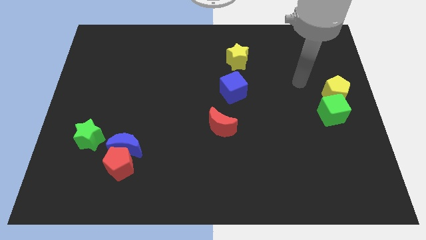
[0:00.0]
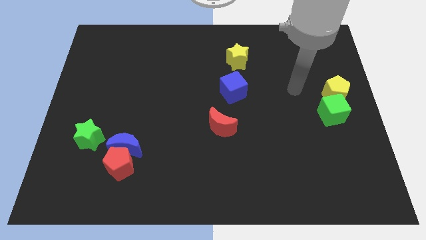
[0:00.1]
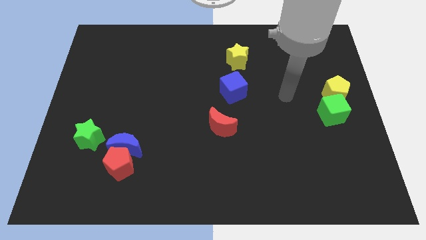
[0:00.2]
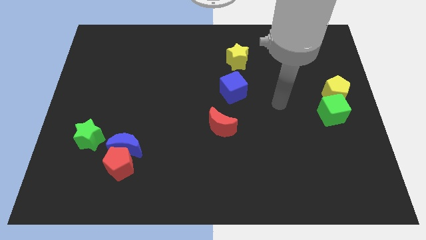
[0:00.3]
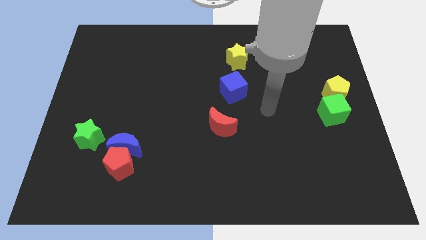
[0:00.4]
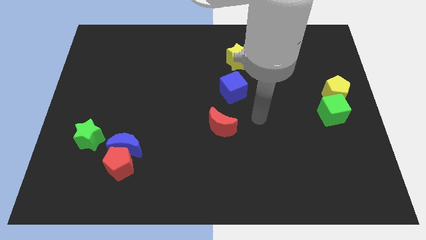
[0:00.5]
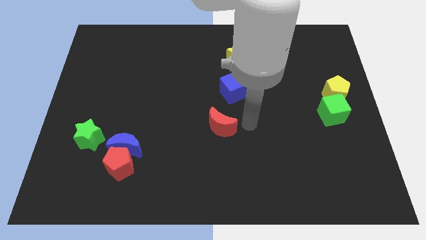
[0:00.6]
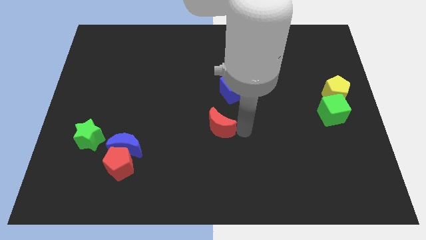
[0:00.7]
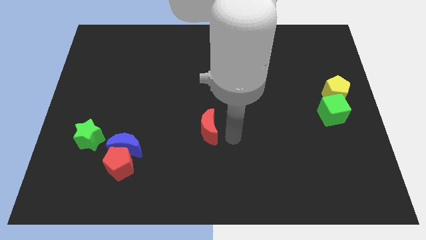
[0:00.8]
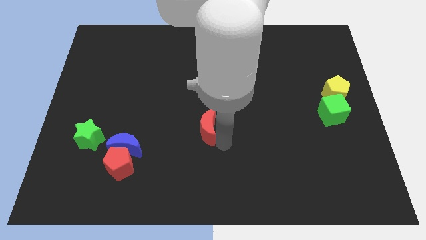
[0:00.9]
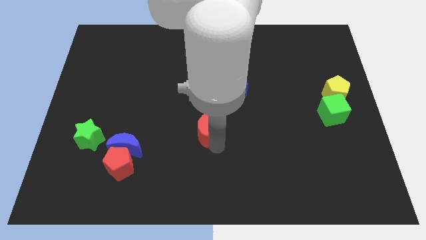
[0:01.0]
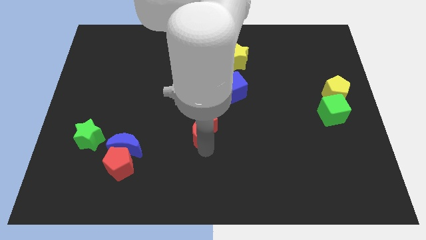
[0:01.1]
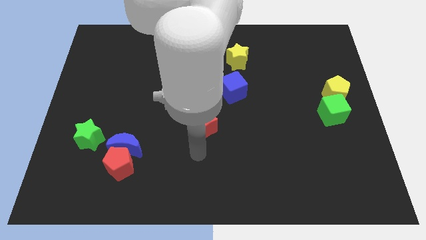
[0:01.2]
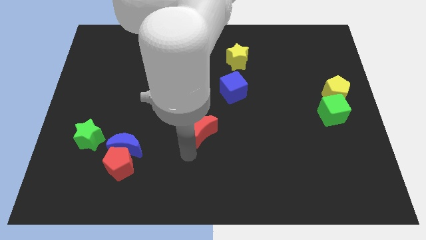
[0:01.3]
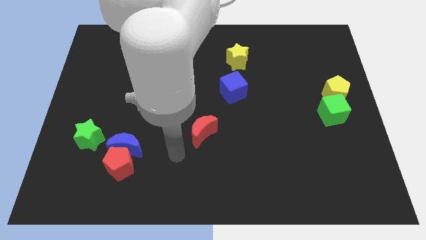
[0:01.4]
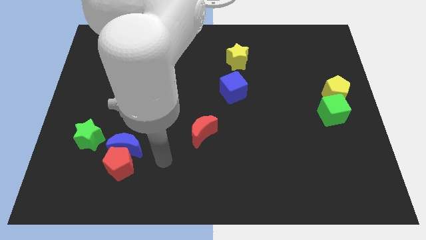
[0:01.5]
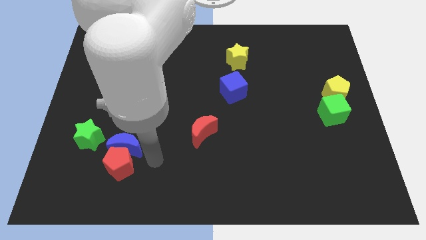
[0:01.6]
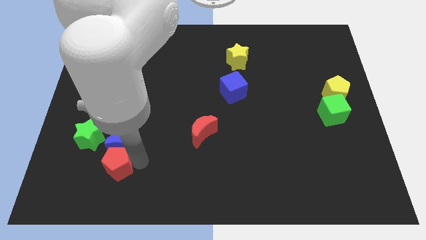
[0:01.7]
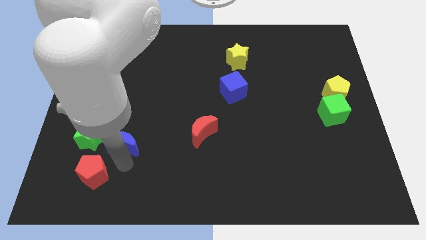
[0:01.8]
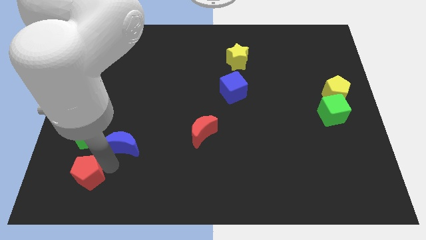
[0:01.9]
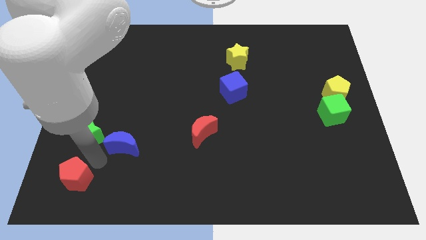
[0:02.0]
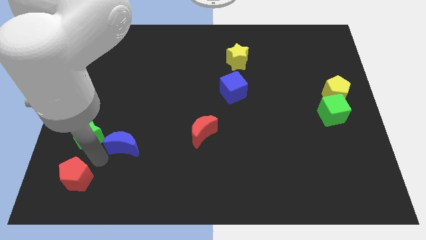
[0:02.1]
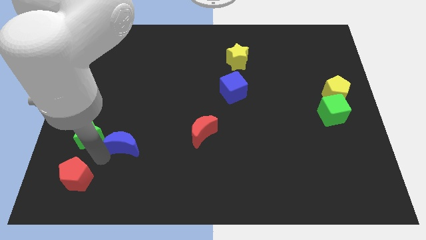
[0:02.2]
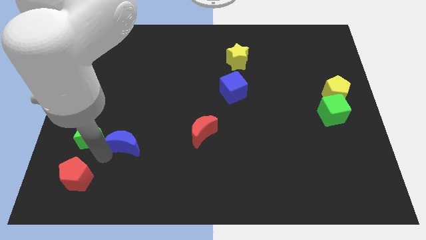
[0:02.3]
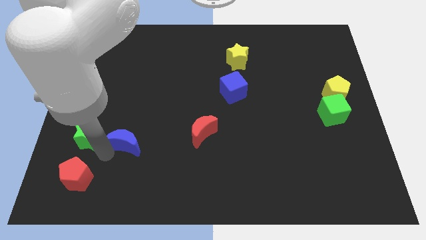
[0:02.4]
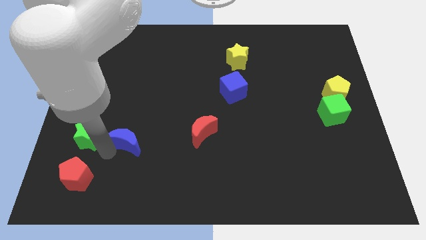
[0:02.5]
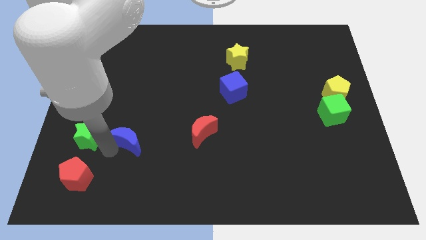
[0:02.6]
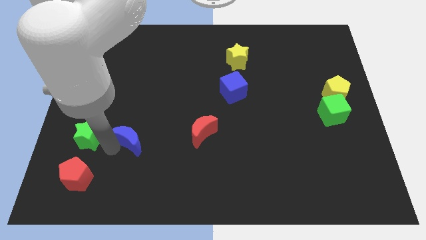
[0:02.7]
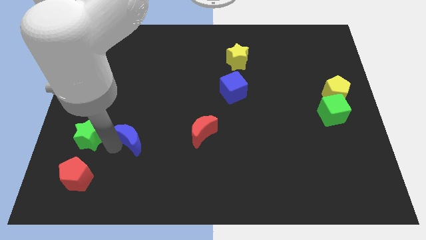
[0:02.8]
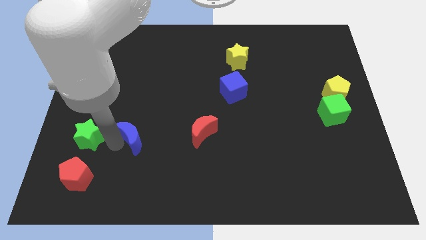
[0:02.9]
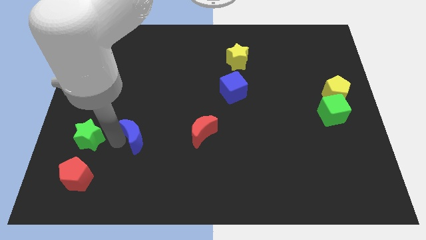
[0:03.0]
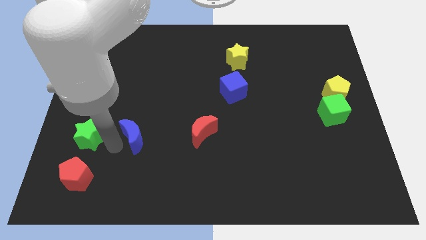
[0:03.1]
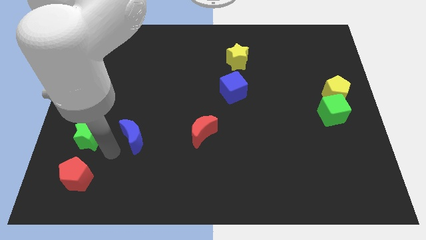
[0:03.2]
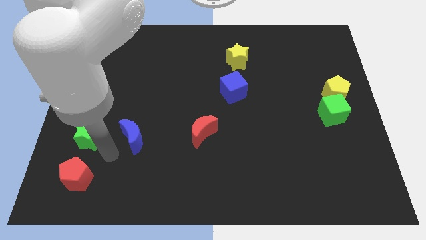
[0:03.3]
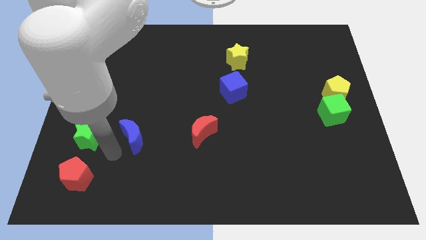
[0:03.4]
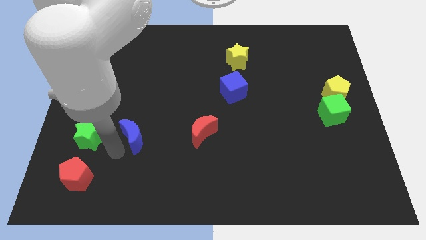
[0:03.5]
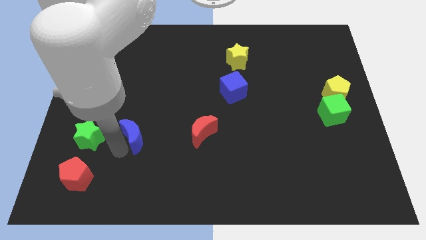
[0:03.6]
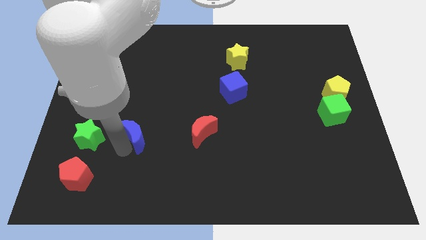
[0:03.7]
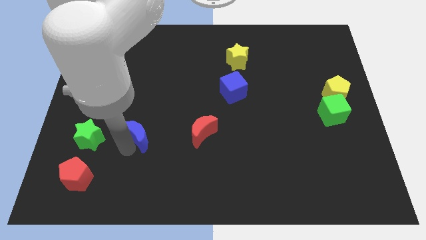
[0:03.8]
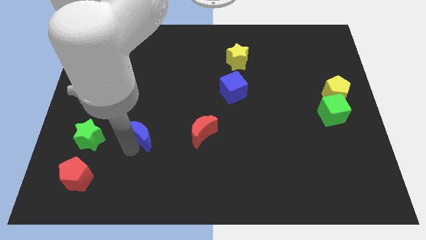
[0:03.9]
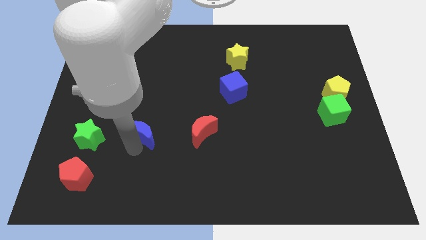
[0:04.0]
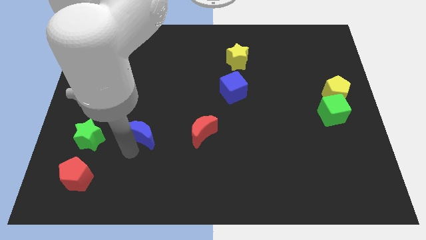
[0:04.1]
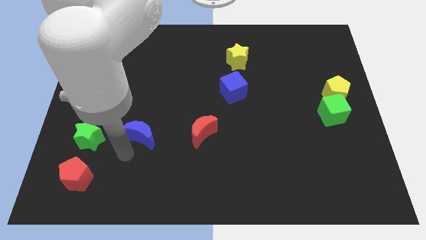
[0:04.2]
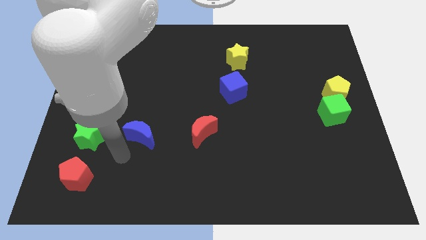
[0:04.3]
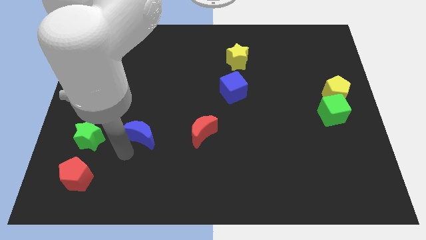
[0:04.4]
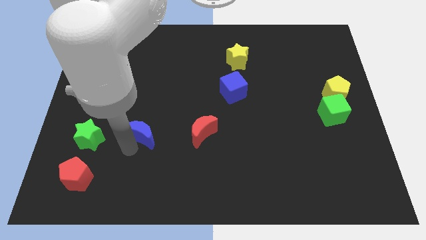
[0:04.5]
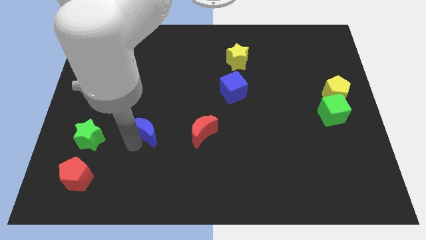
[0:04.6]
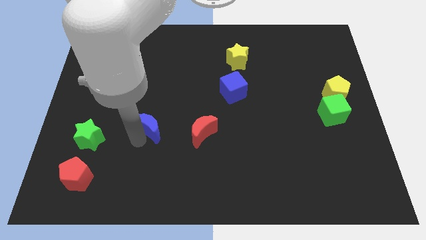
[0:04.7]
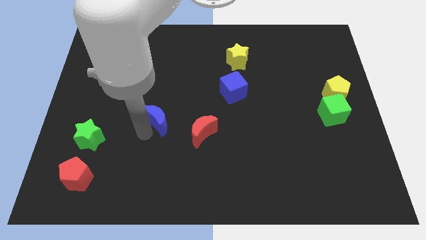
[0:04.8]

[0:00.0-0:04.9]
slide the blue moon a little upwards and then to the right

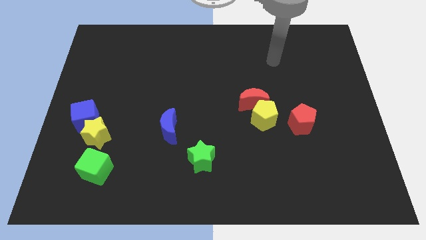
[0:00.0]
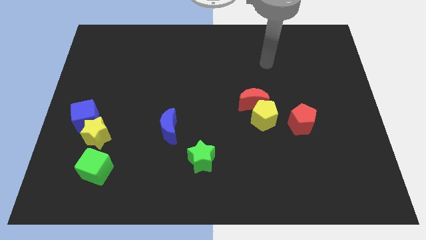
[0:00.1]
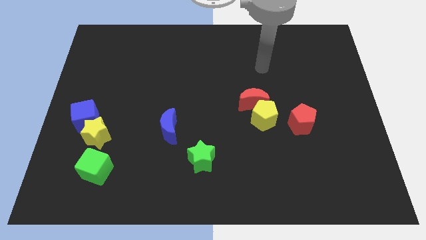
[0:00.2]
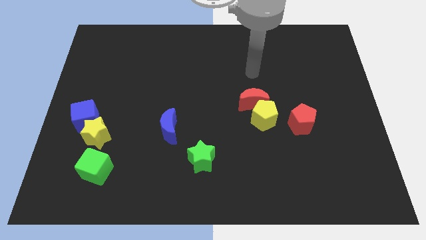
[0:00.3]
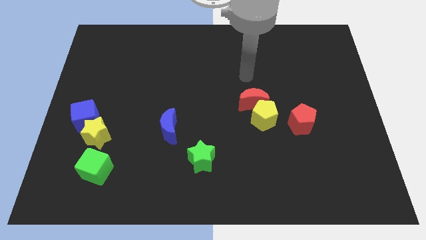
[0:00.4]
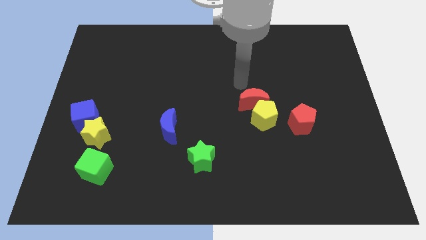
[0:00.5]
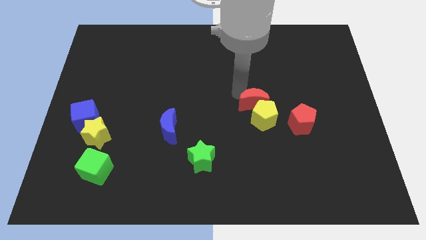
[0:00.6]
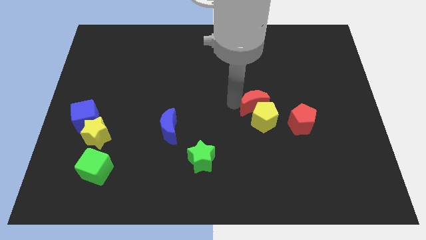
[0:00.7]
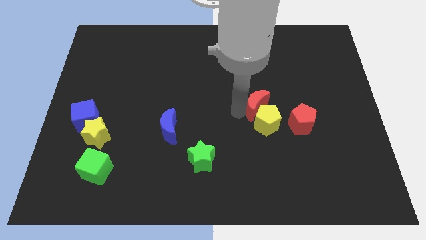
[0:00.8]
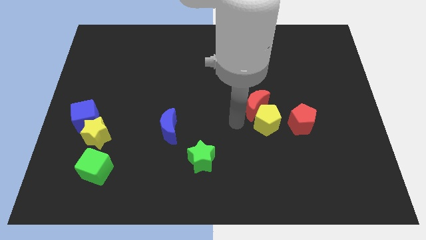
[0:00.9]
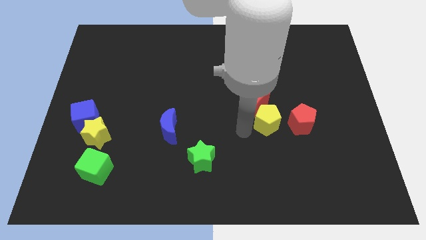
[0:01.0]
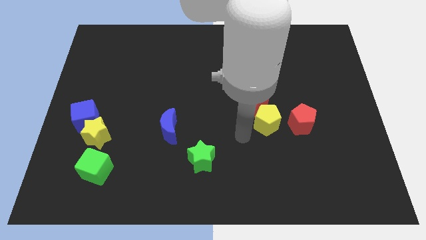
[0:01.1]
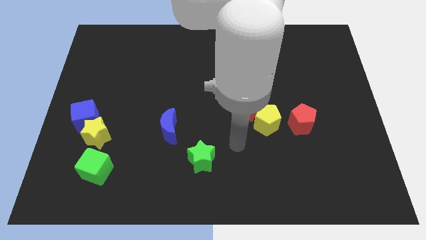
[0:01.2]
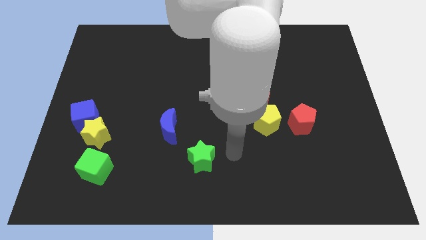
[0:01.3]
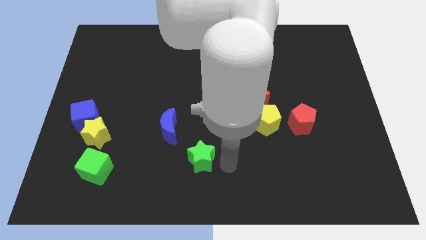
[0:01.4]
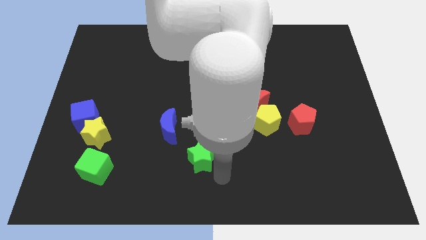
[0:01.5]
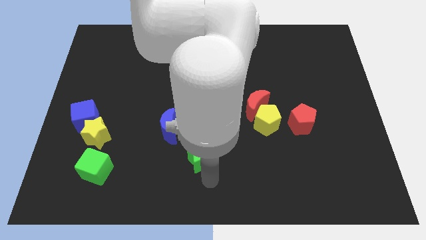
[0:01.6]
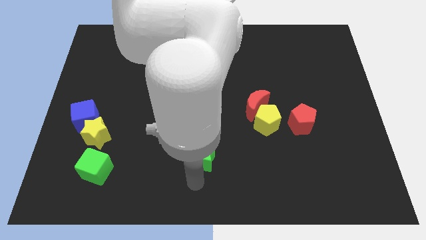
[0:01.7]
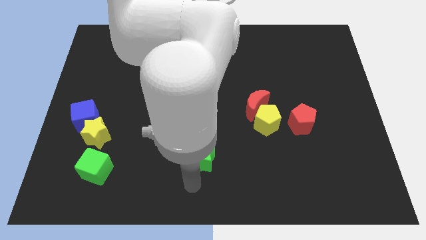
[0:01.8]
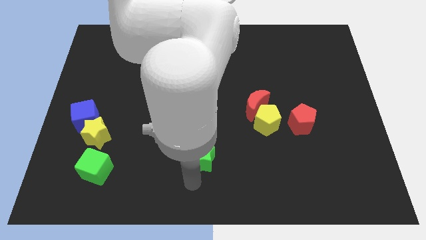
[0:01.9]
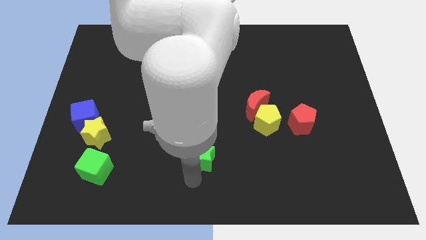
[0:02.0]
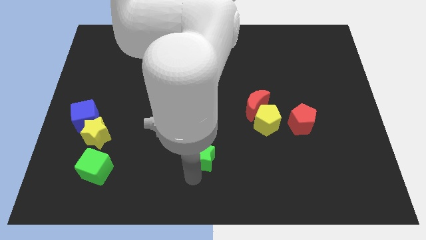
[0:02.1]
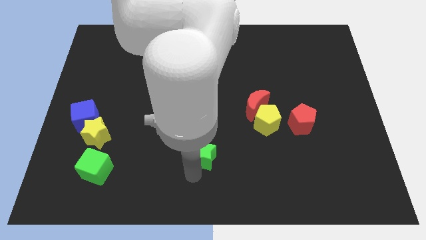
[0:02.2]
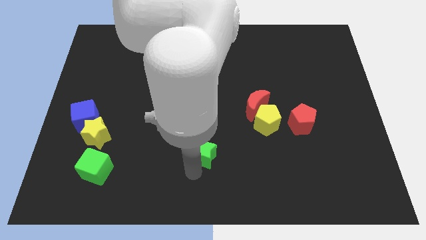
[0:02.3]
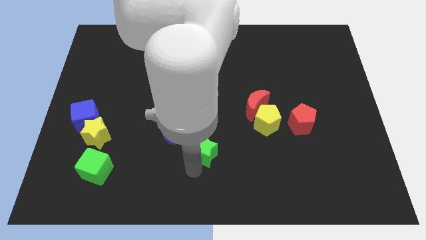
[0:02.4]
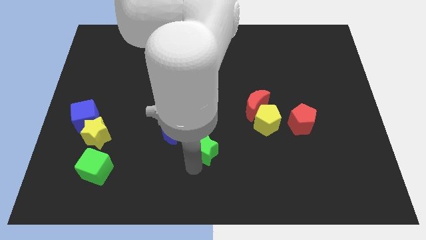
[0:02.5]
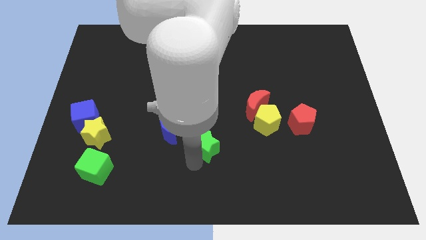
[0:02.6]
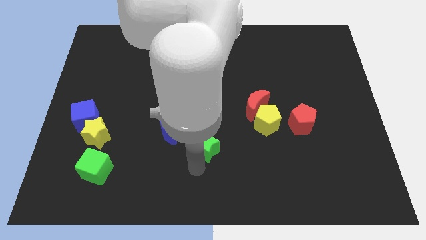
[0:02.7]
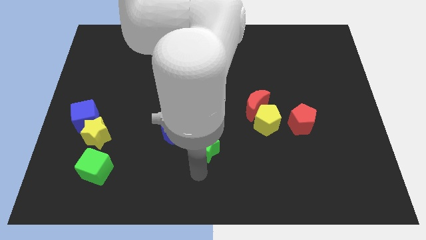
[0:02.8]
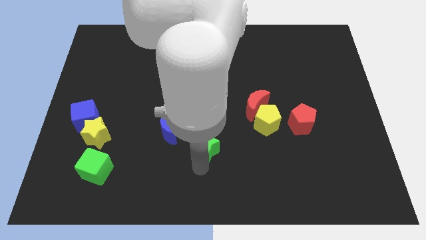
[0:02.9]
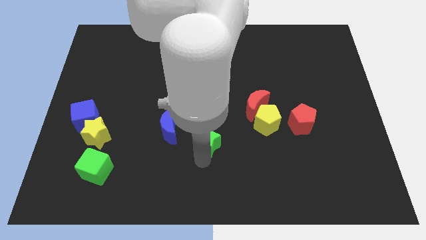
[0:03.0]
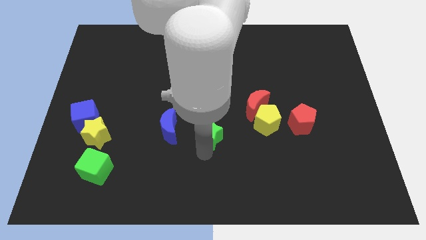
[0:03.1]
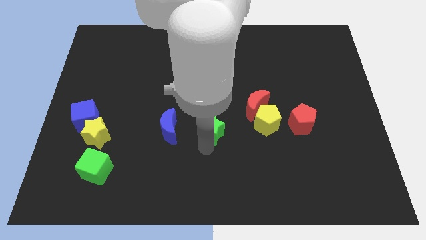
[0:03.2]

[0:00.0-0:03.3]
push the green star upwards somewhat
